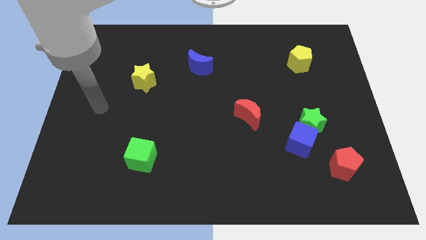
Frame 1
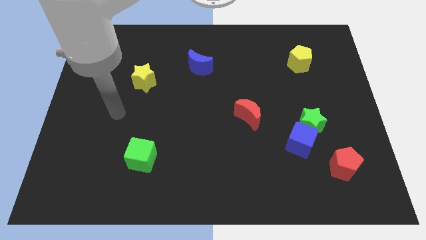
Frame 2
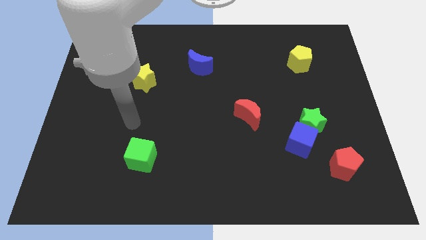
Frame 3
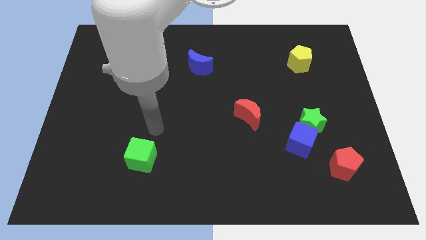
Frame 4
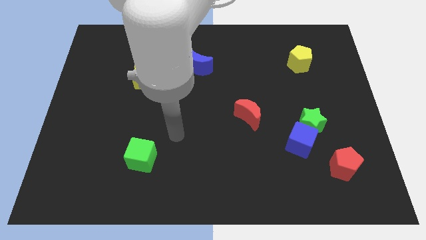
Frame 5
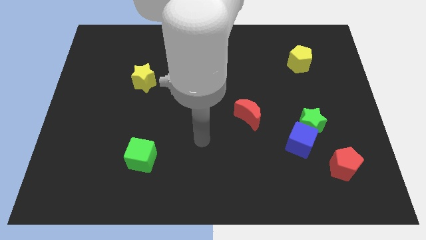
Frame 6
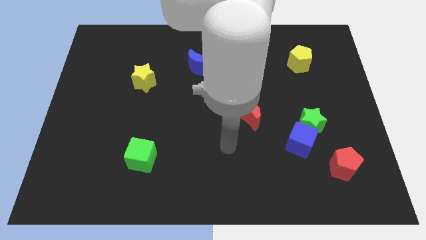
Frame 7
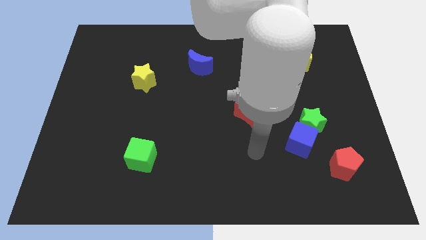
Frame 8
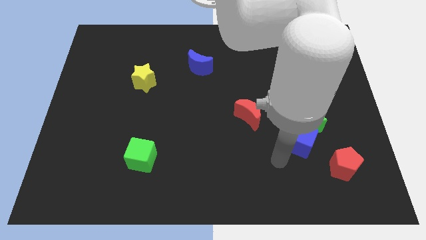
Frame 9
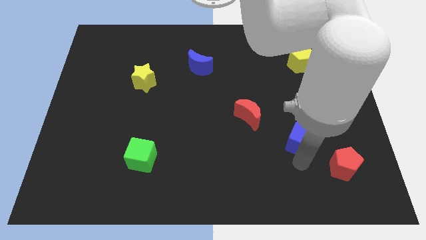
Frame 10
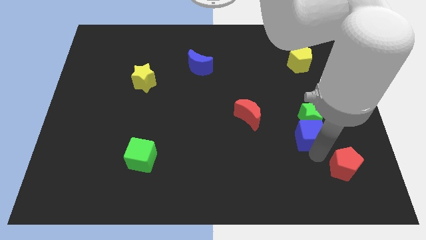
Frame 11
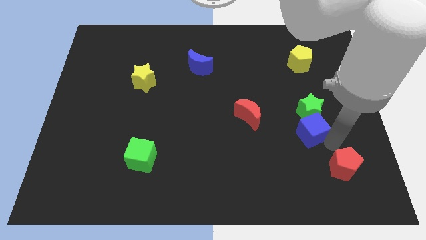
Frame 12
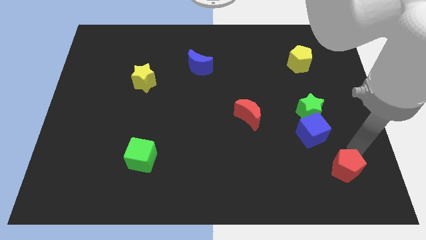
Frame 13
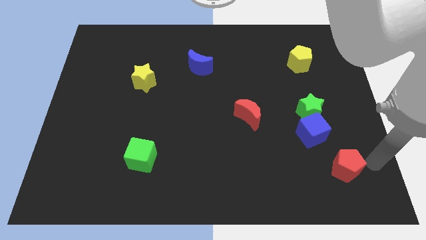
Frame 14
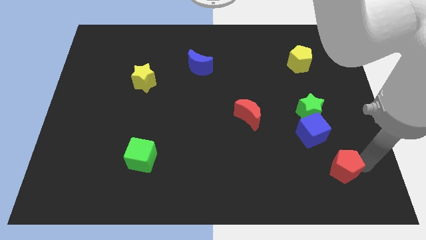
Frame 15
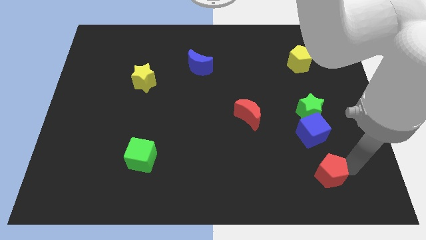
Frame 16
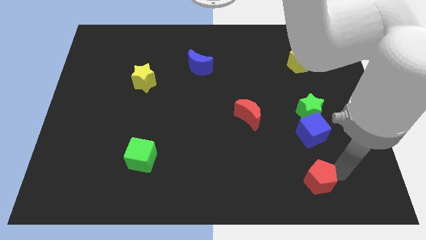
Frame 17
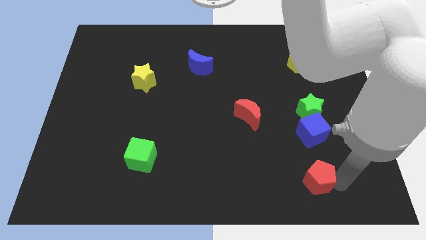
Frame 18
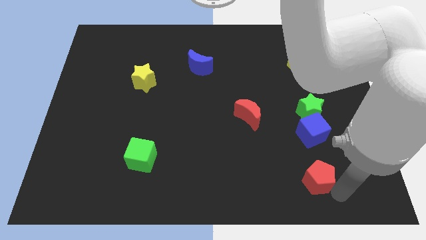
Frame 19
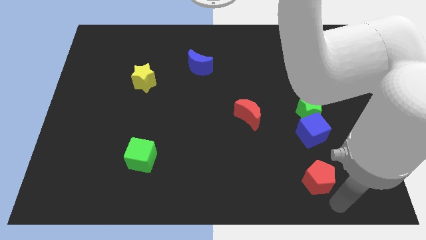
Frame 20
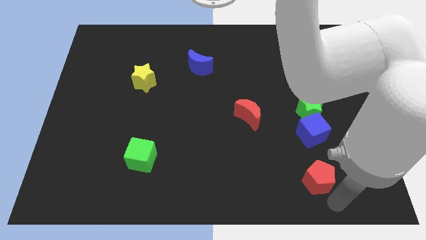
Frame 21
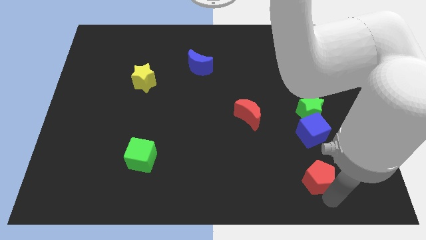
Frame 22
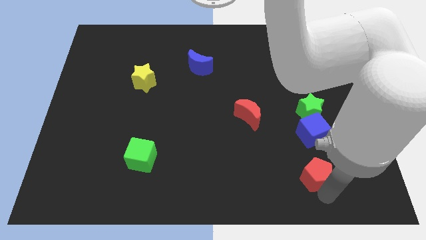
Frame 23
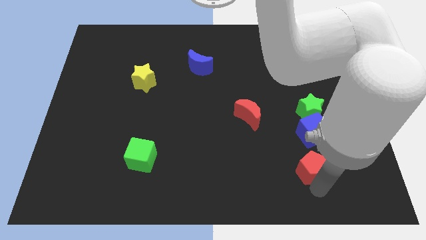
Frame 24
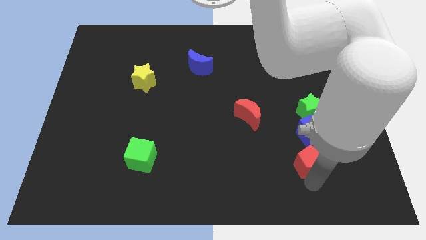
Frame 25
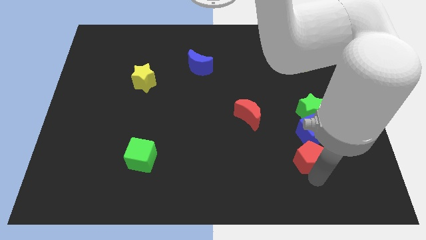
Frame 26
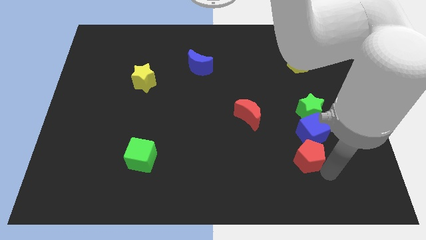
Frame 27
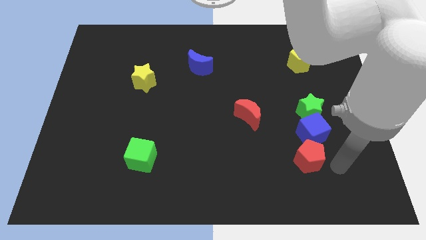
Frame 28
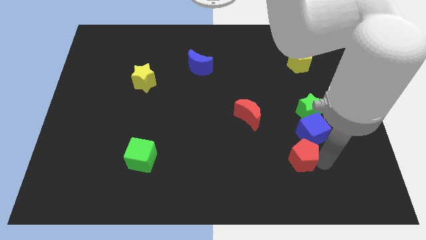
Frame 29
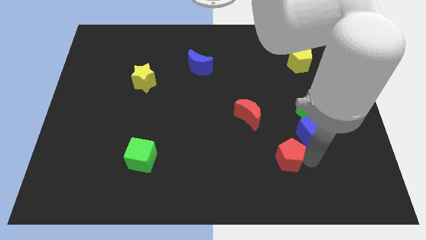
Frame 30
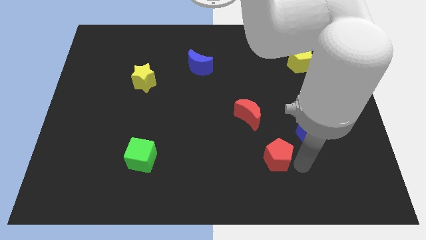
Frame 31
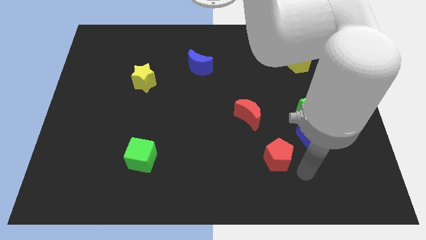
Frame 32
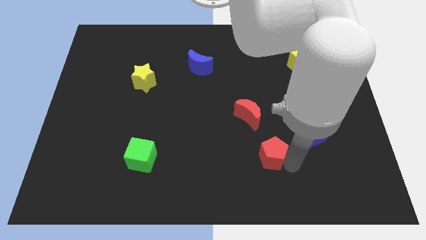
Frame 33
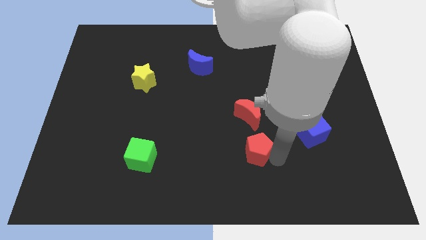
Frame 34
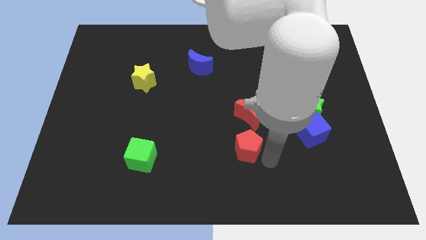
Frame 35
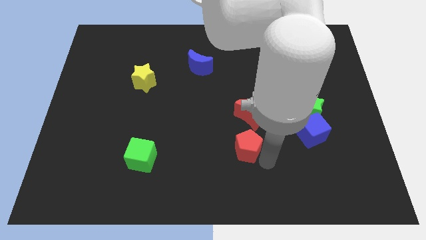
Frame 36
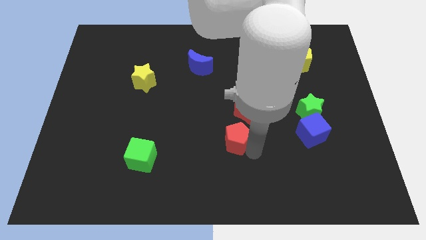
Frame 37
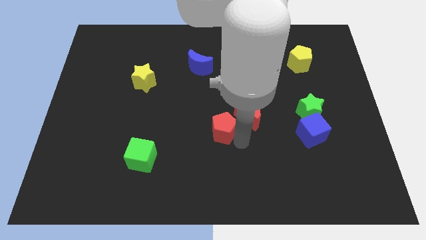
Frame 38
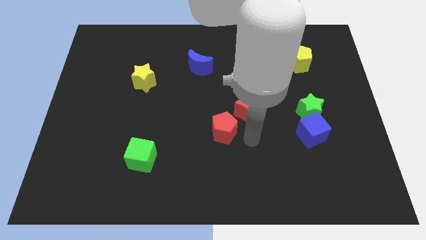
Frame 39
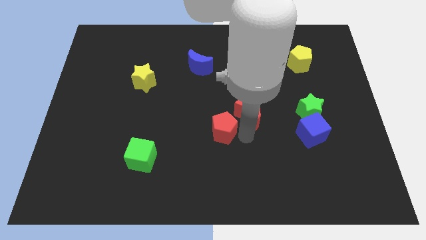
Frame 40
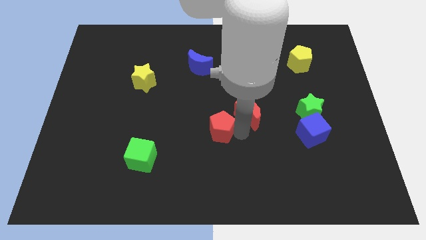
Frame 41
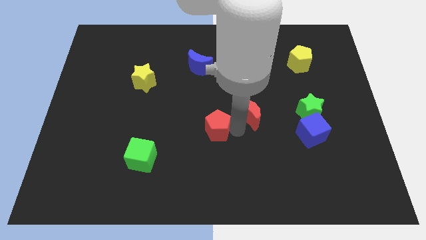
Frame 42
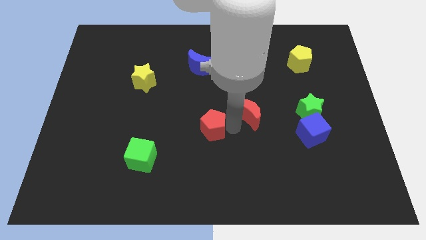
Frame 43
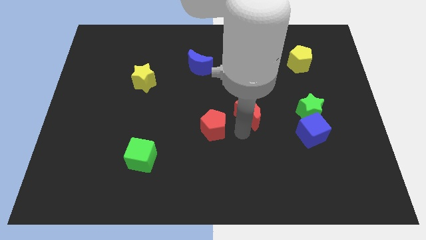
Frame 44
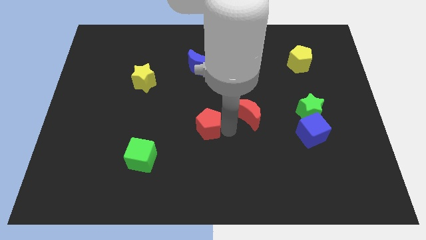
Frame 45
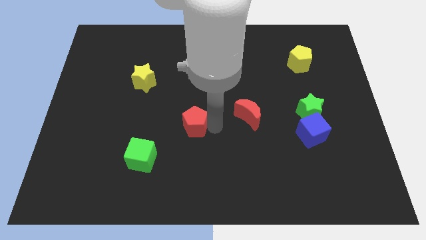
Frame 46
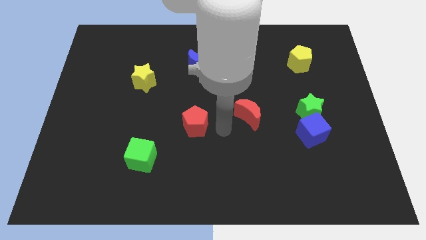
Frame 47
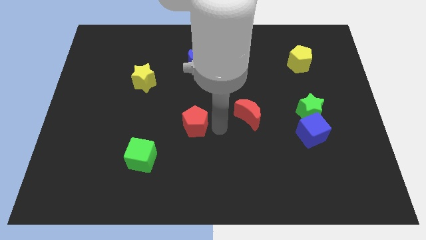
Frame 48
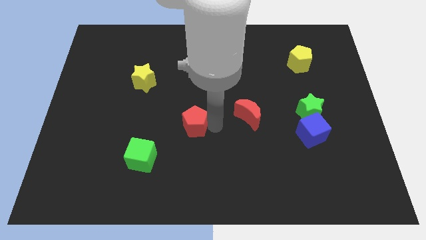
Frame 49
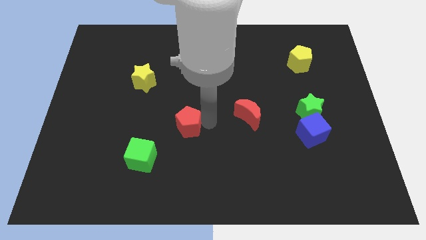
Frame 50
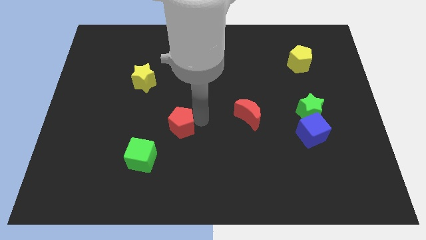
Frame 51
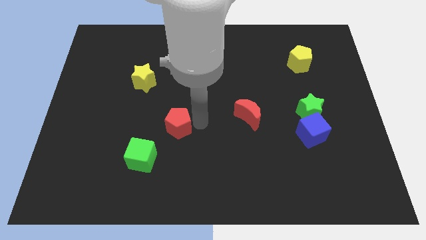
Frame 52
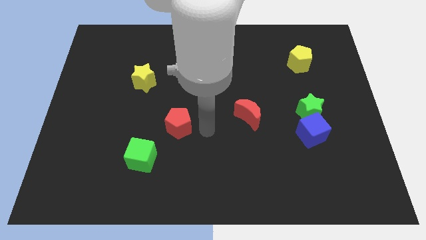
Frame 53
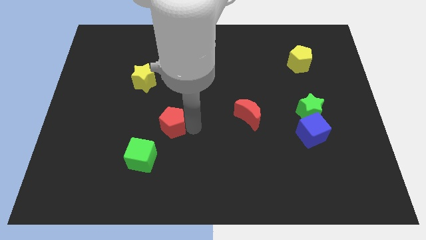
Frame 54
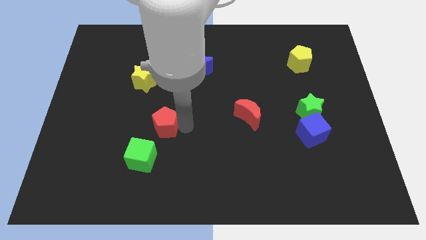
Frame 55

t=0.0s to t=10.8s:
push the red pentagon above the green cube

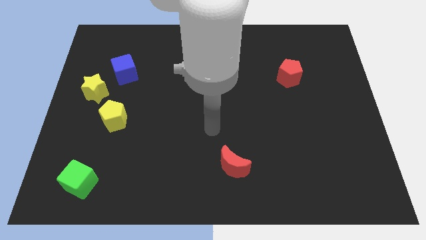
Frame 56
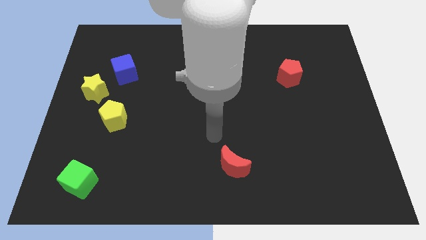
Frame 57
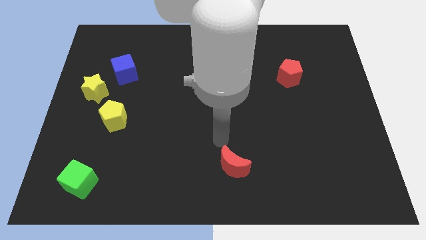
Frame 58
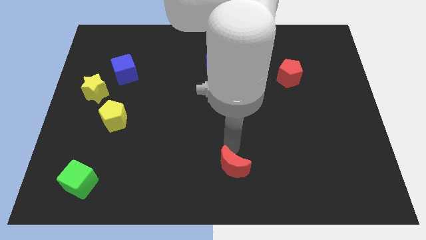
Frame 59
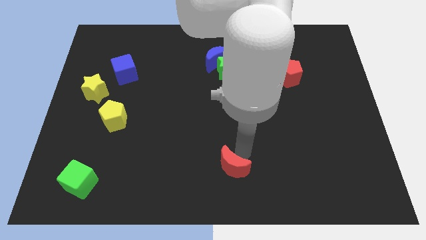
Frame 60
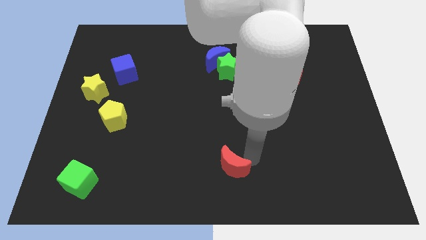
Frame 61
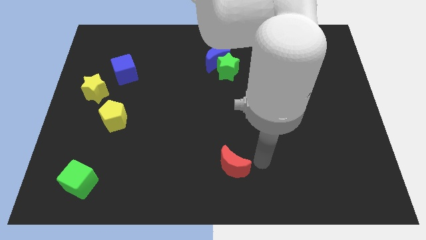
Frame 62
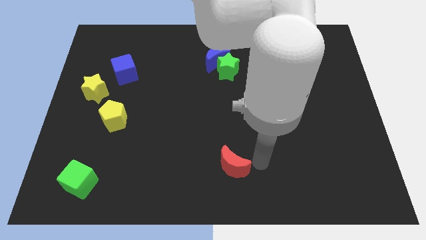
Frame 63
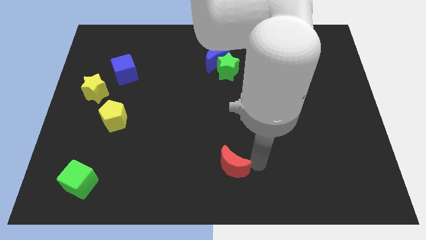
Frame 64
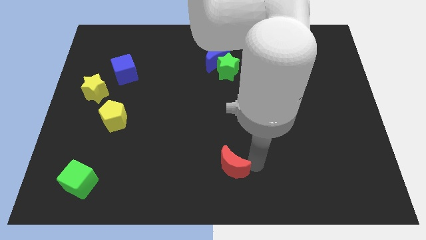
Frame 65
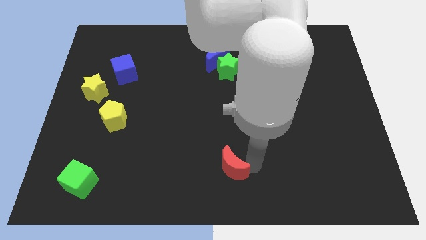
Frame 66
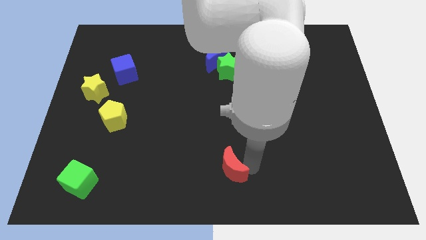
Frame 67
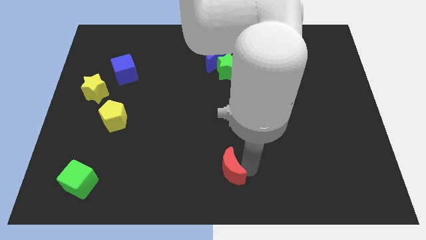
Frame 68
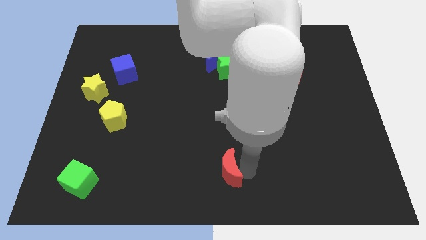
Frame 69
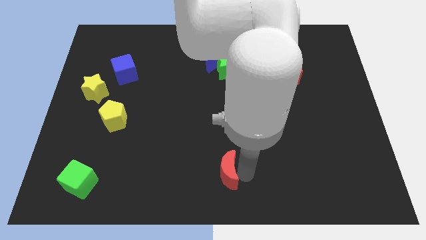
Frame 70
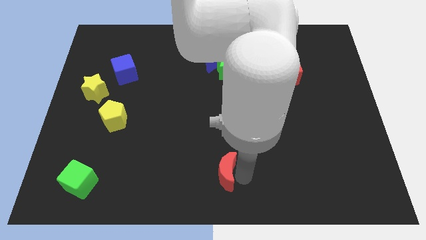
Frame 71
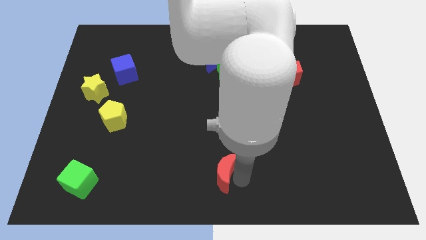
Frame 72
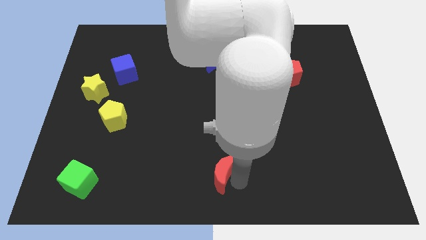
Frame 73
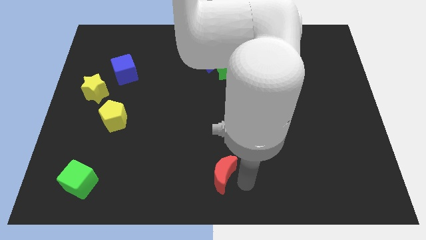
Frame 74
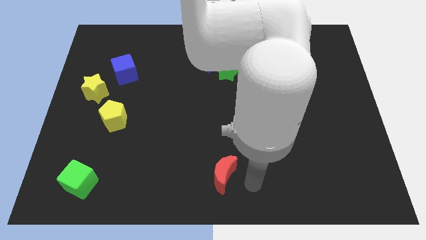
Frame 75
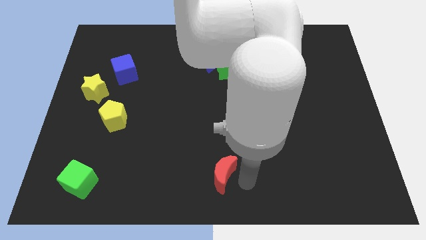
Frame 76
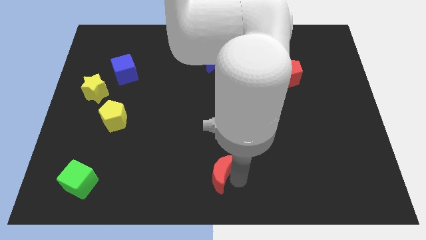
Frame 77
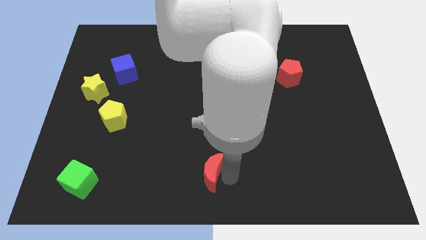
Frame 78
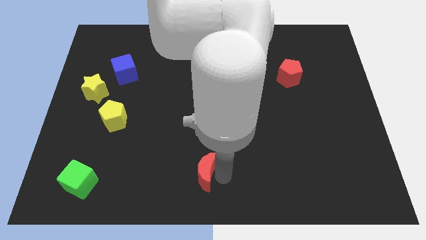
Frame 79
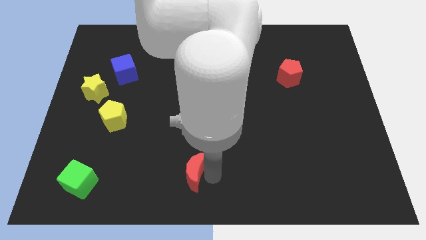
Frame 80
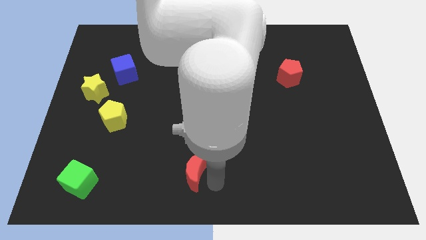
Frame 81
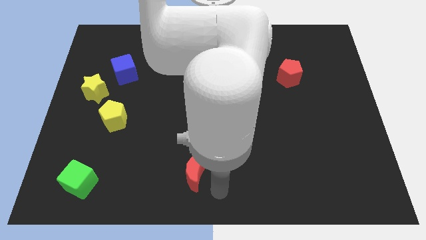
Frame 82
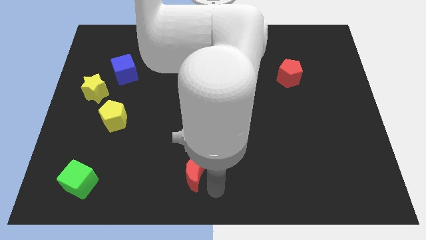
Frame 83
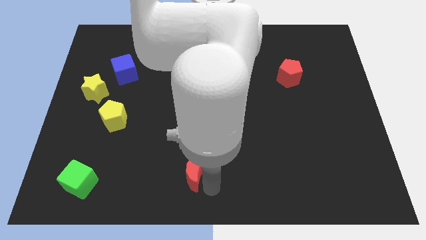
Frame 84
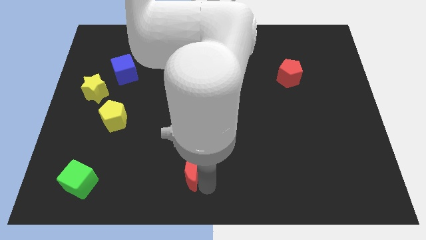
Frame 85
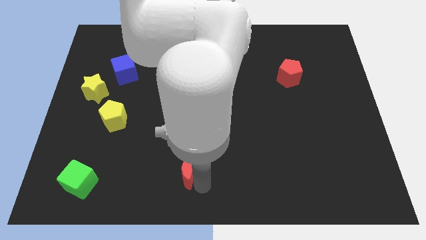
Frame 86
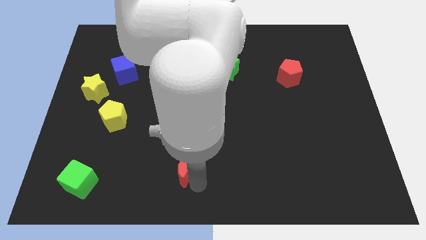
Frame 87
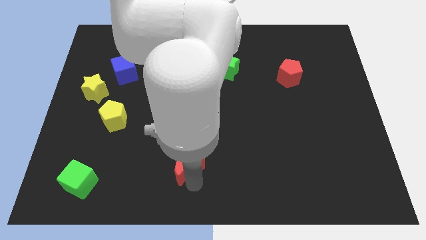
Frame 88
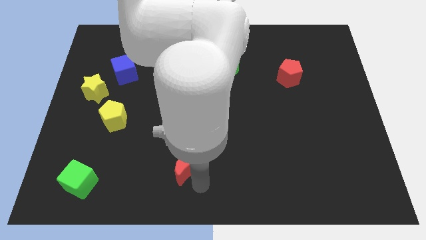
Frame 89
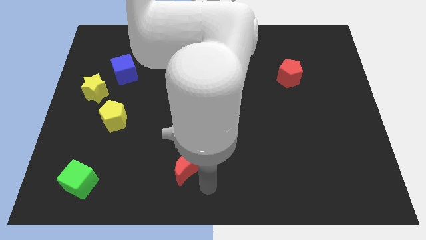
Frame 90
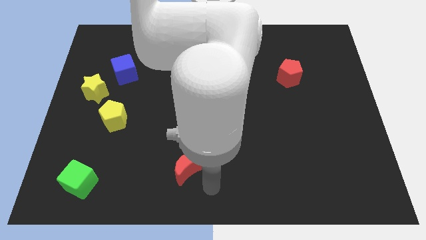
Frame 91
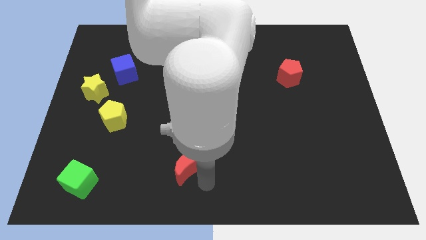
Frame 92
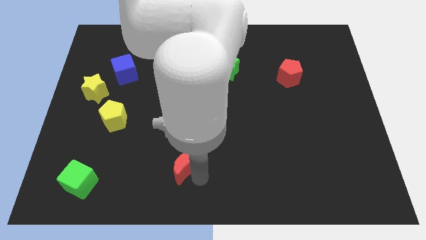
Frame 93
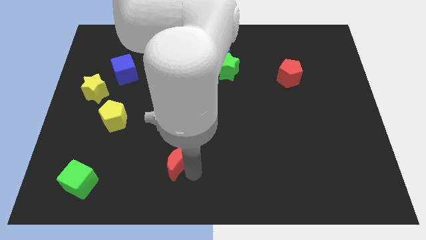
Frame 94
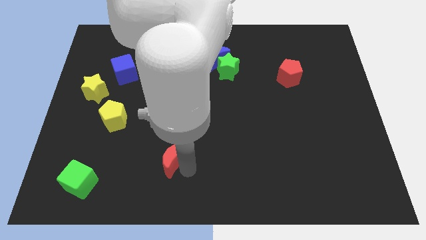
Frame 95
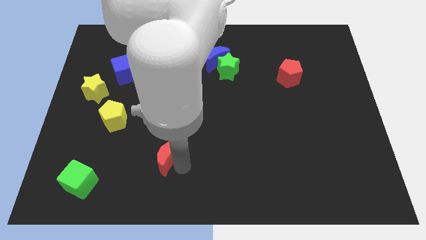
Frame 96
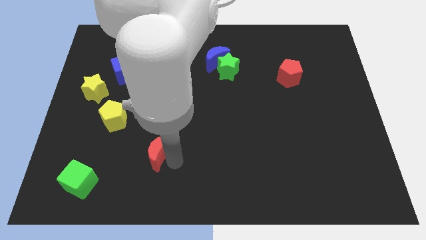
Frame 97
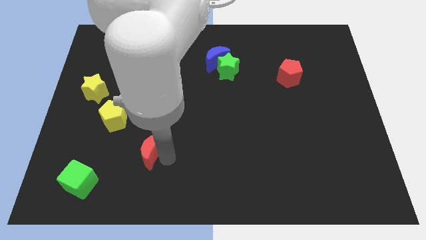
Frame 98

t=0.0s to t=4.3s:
push the red moon to the bottom right of the yellow pentagon
